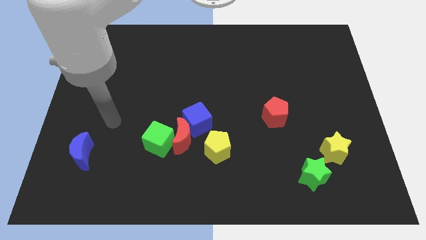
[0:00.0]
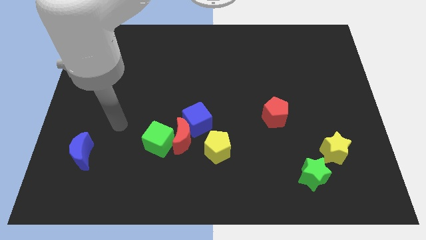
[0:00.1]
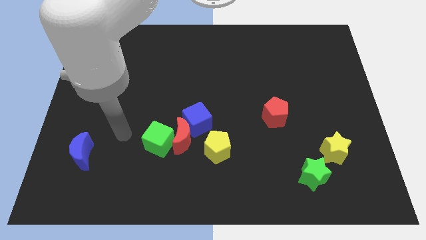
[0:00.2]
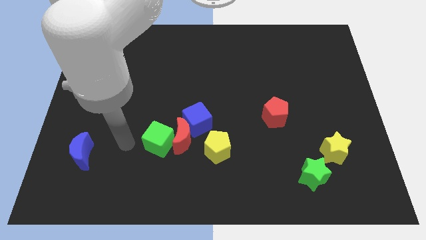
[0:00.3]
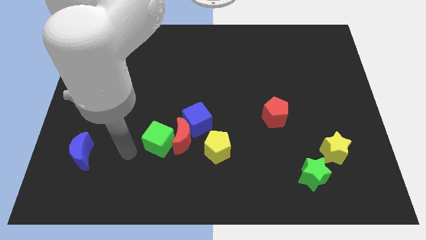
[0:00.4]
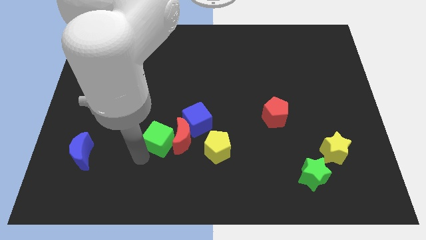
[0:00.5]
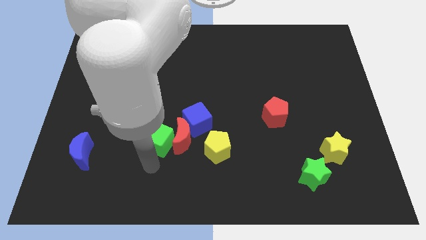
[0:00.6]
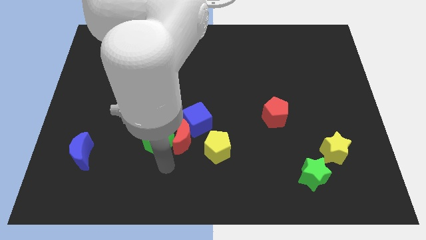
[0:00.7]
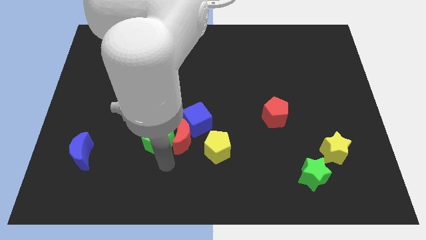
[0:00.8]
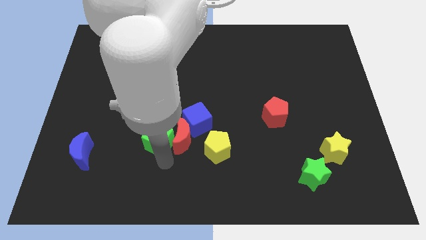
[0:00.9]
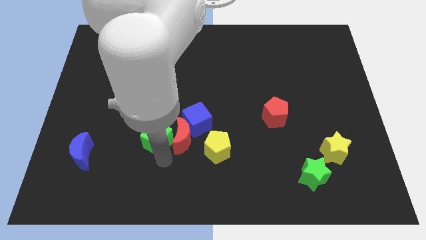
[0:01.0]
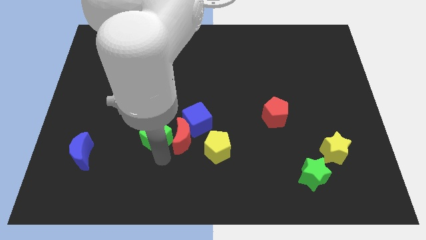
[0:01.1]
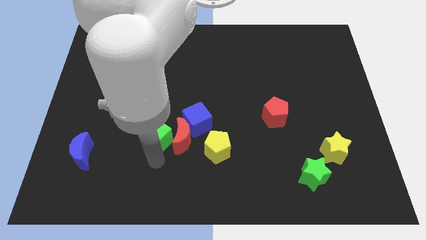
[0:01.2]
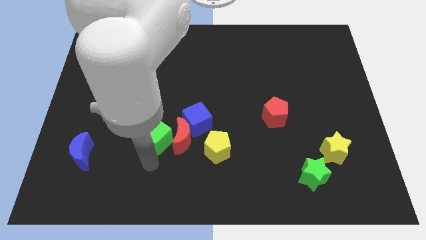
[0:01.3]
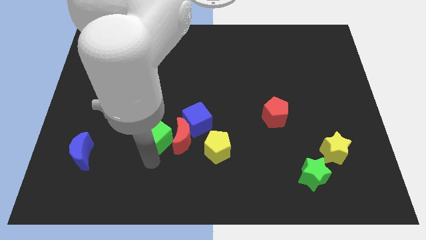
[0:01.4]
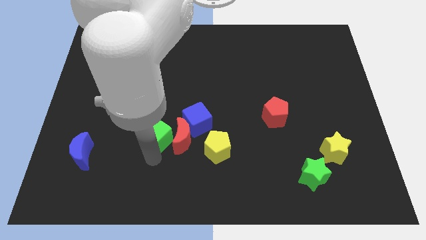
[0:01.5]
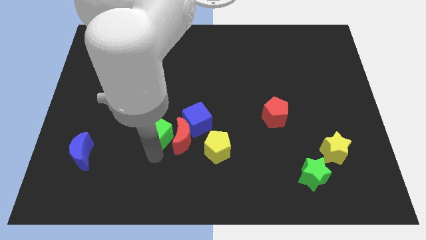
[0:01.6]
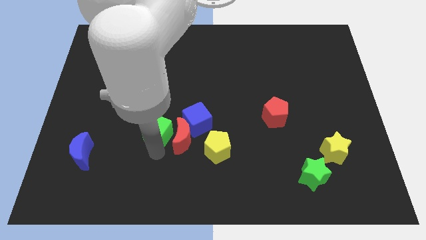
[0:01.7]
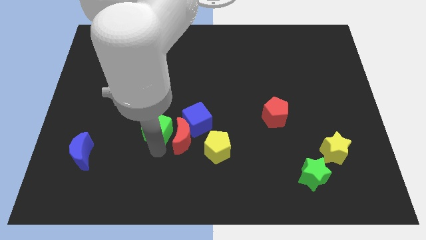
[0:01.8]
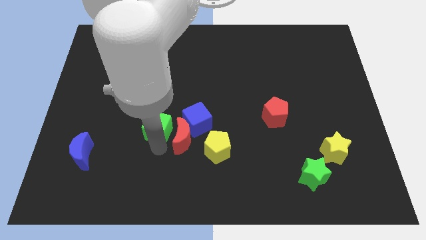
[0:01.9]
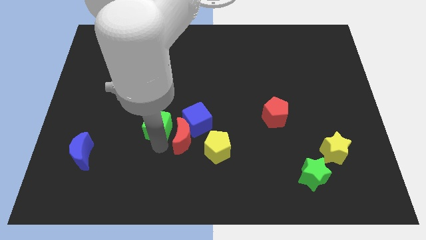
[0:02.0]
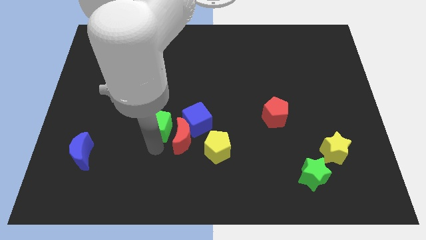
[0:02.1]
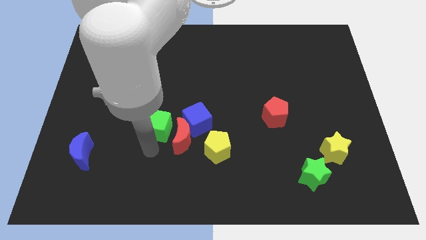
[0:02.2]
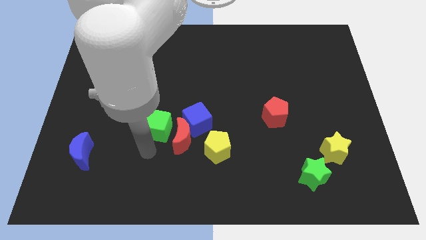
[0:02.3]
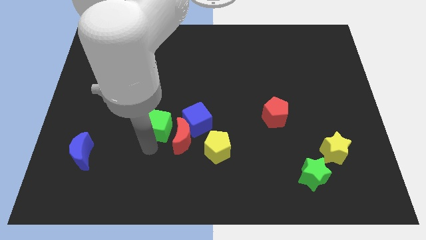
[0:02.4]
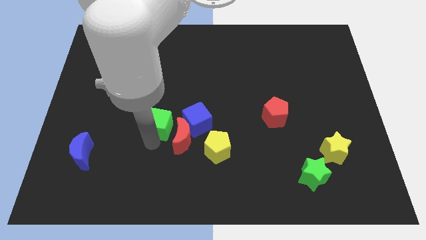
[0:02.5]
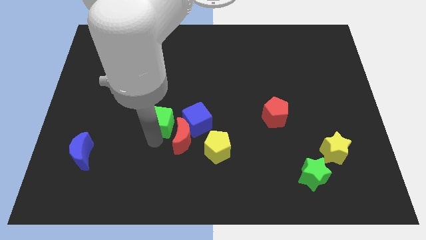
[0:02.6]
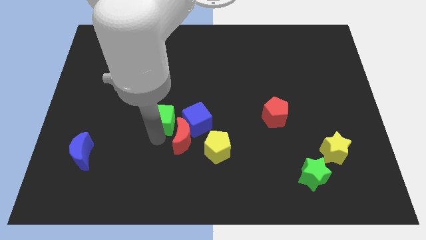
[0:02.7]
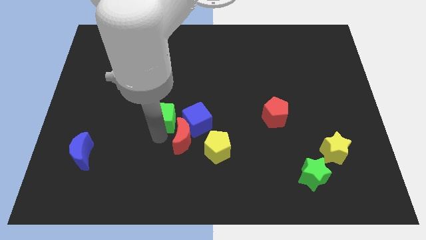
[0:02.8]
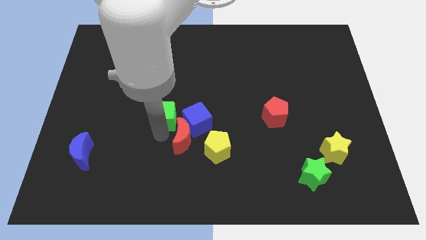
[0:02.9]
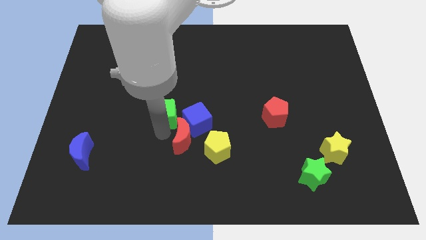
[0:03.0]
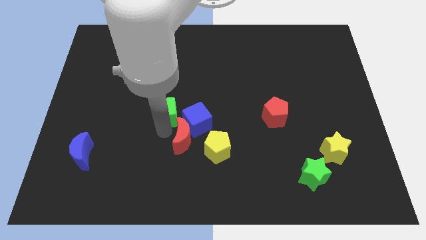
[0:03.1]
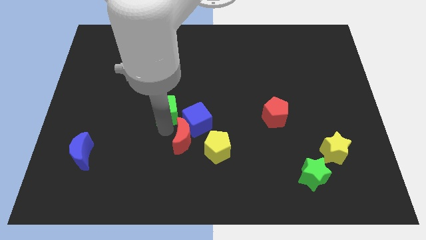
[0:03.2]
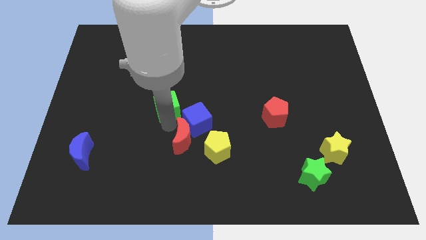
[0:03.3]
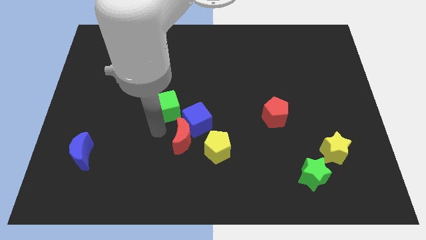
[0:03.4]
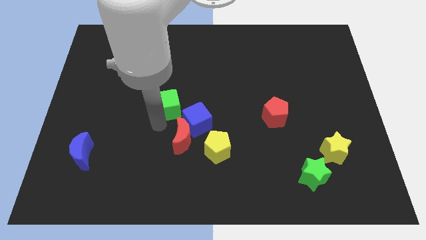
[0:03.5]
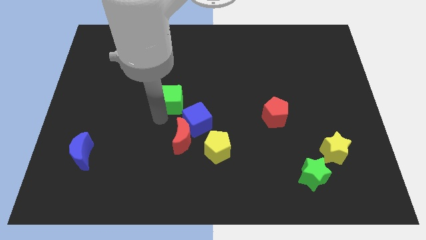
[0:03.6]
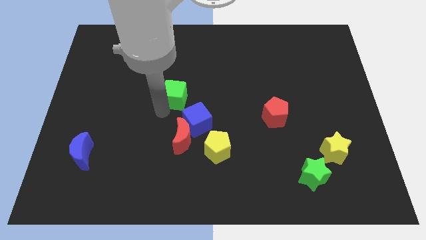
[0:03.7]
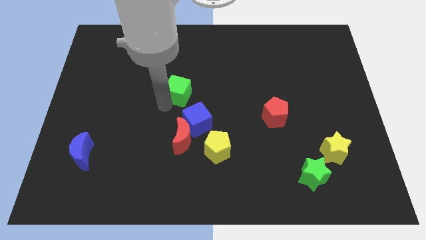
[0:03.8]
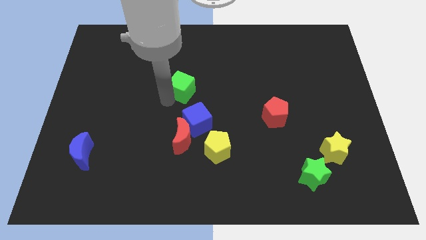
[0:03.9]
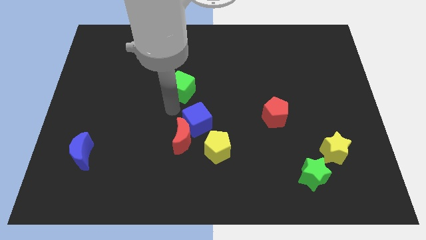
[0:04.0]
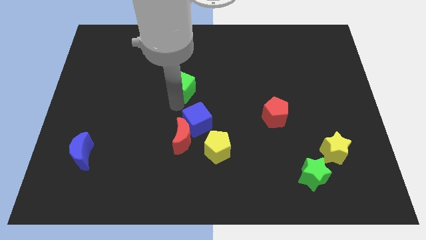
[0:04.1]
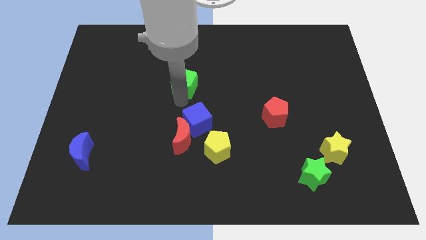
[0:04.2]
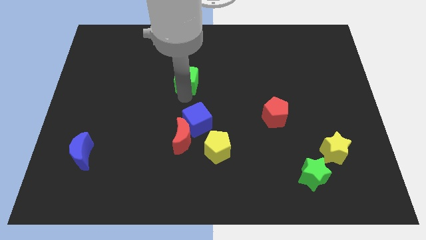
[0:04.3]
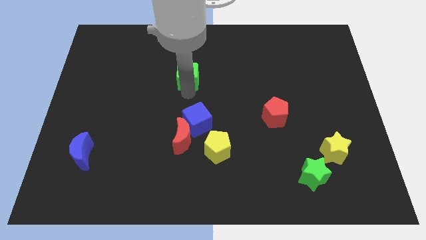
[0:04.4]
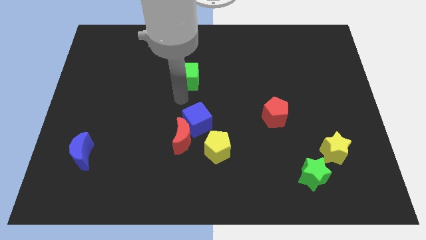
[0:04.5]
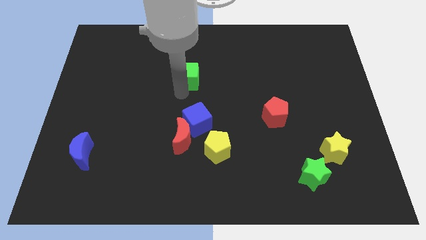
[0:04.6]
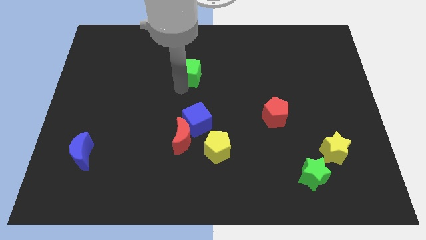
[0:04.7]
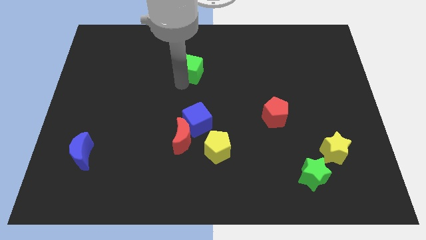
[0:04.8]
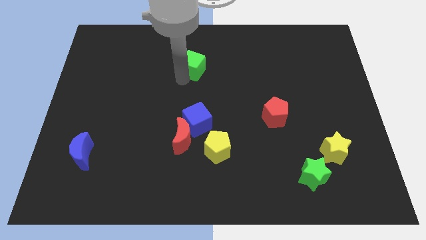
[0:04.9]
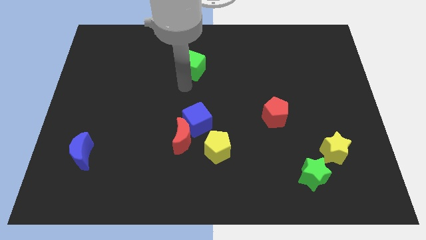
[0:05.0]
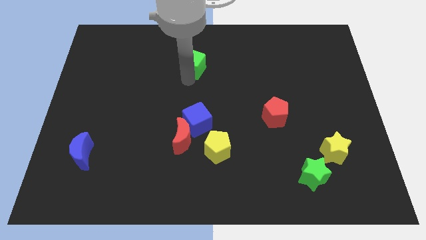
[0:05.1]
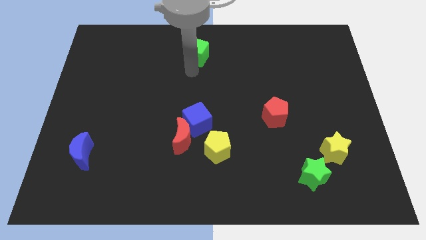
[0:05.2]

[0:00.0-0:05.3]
push the green cube to the towards your base
